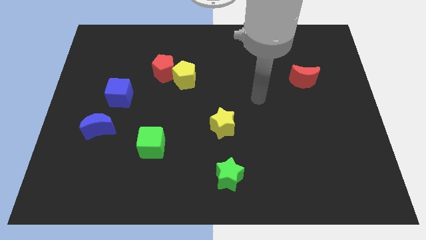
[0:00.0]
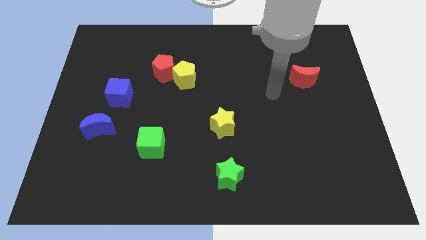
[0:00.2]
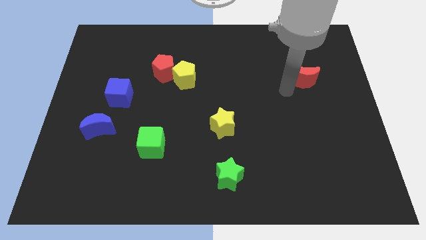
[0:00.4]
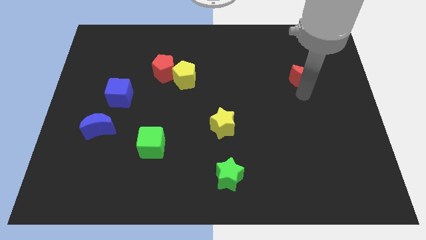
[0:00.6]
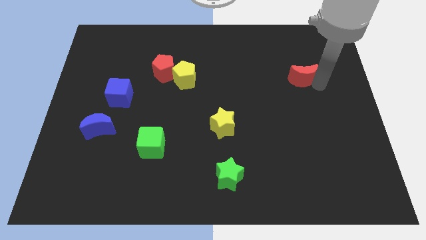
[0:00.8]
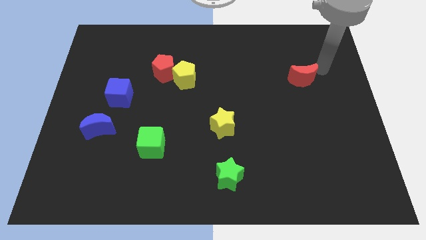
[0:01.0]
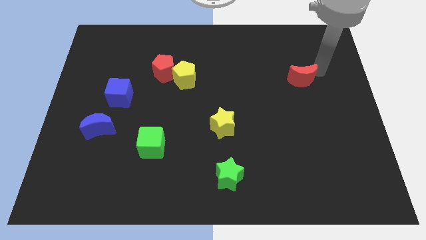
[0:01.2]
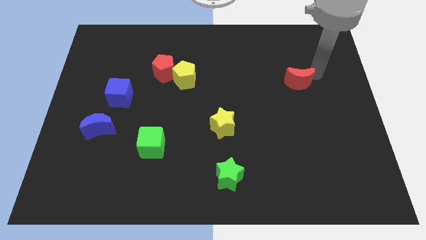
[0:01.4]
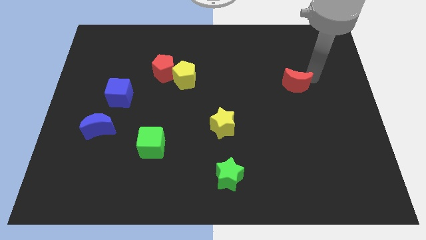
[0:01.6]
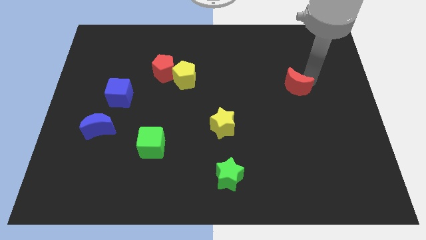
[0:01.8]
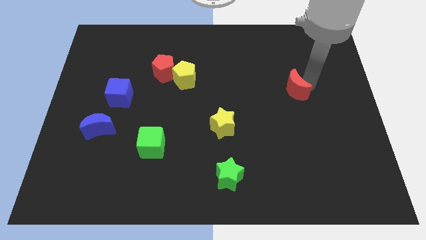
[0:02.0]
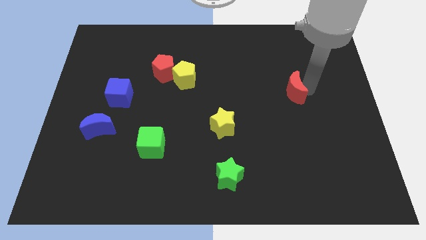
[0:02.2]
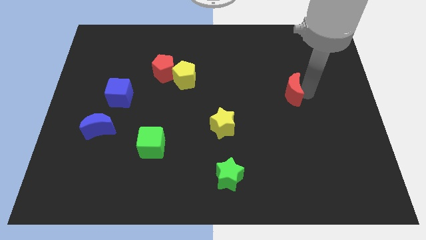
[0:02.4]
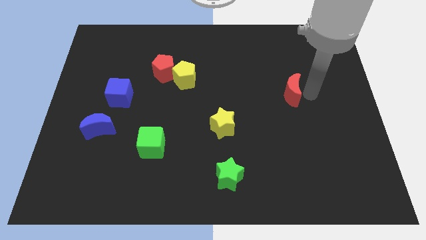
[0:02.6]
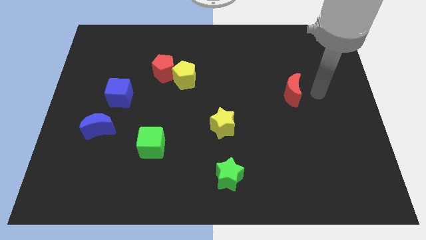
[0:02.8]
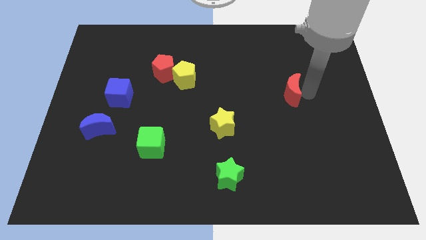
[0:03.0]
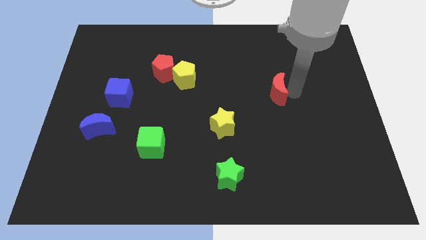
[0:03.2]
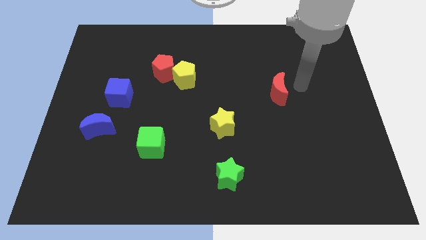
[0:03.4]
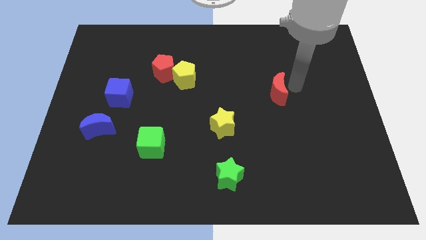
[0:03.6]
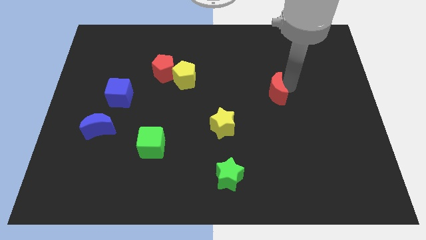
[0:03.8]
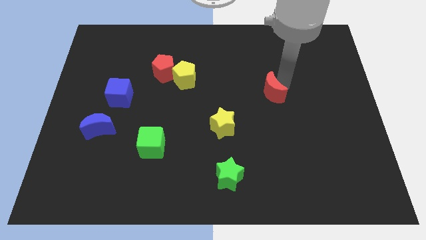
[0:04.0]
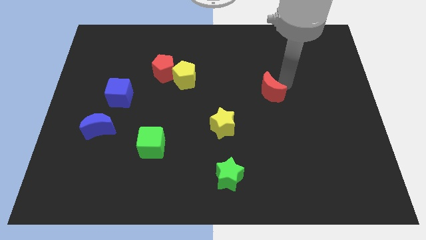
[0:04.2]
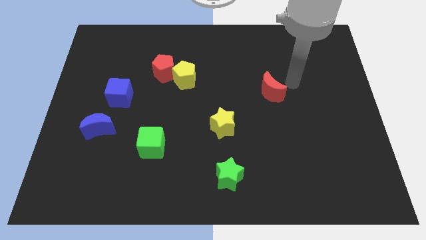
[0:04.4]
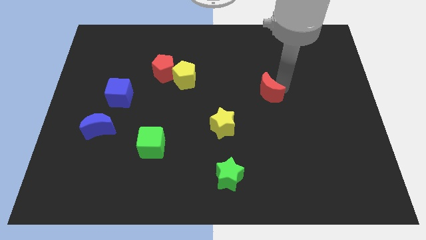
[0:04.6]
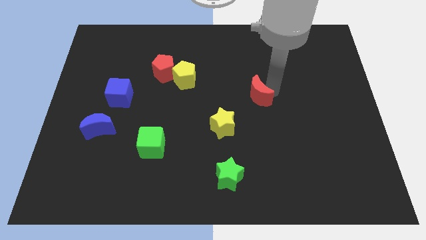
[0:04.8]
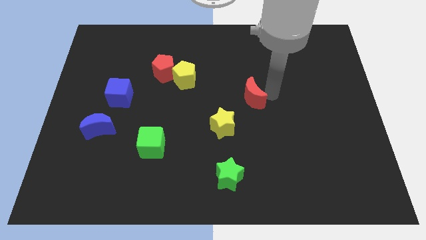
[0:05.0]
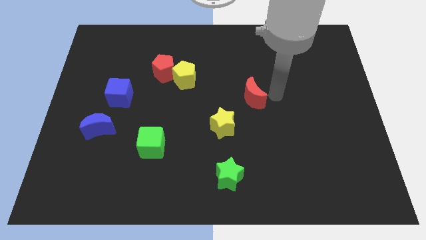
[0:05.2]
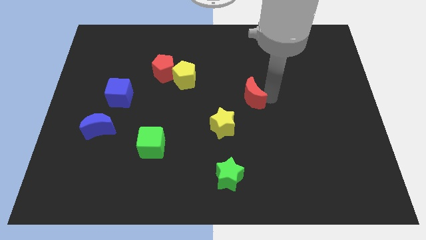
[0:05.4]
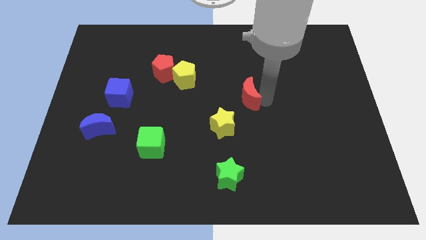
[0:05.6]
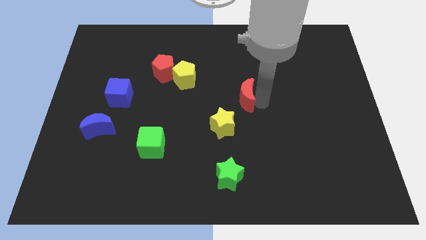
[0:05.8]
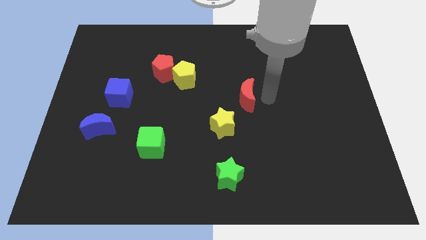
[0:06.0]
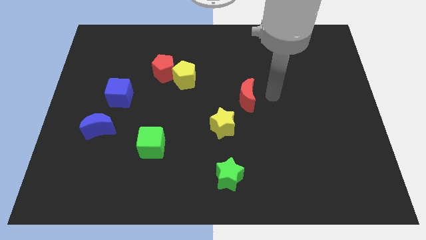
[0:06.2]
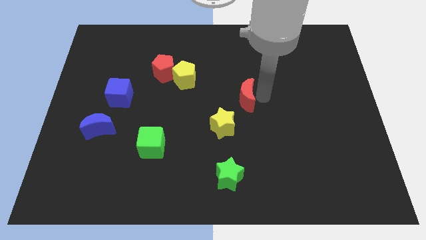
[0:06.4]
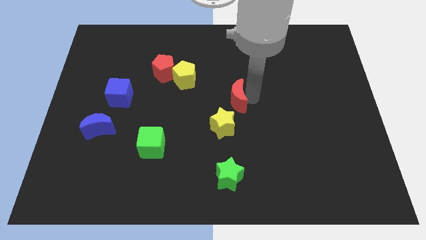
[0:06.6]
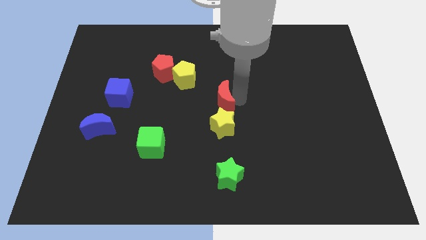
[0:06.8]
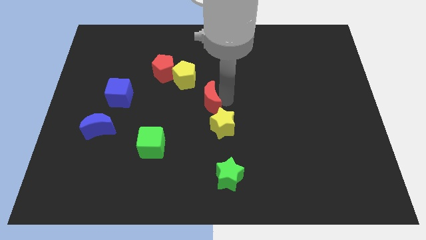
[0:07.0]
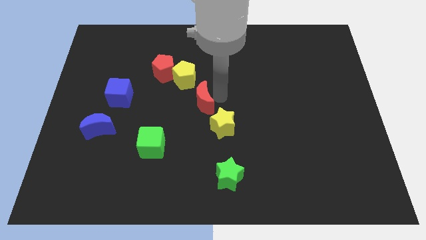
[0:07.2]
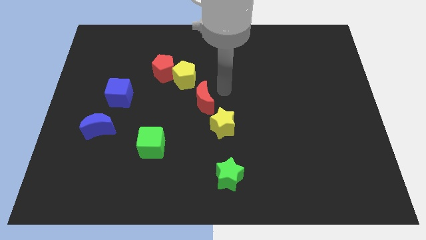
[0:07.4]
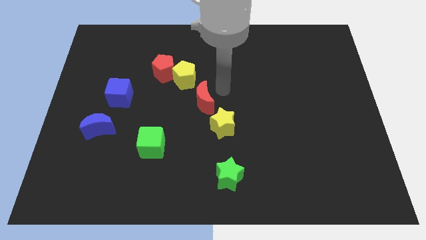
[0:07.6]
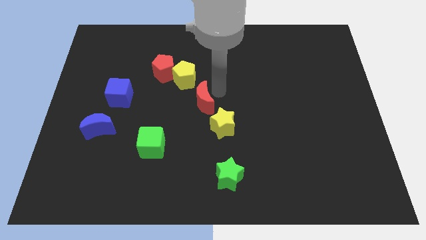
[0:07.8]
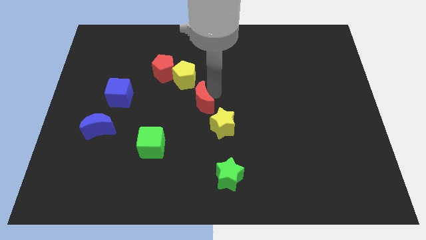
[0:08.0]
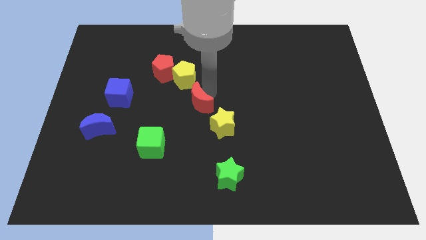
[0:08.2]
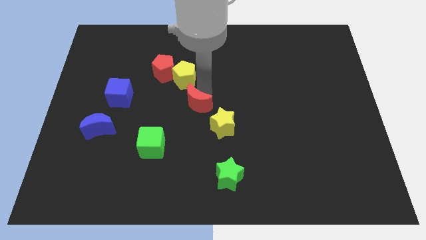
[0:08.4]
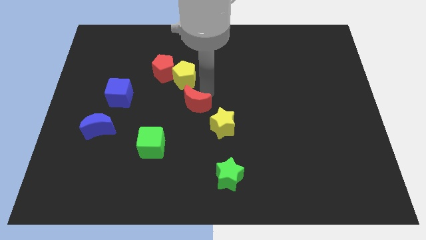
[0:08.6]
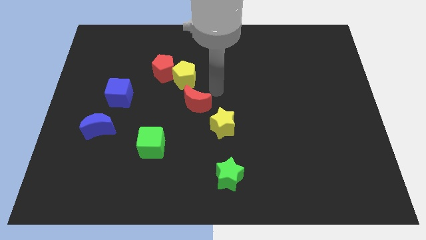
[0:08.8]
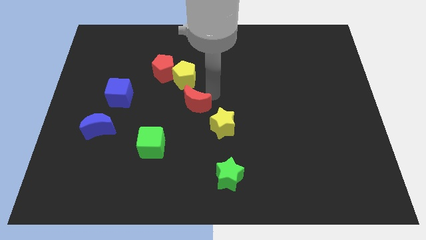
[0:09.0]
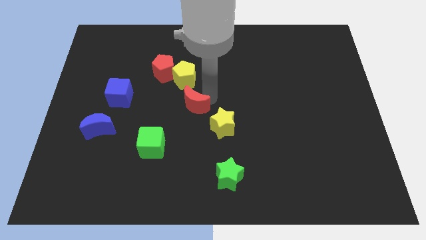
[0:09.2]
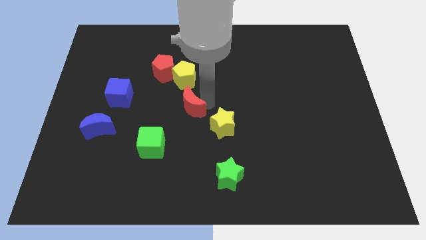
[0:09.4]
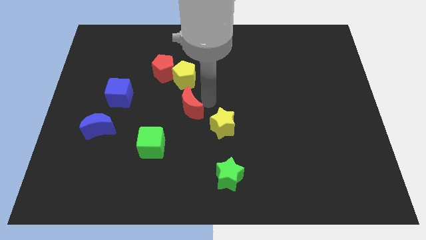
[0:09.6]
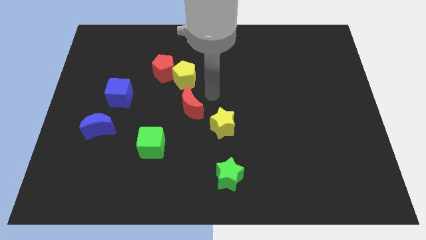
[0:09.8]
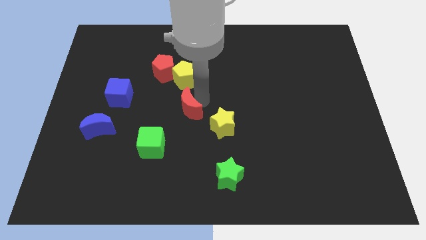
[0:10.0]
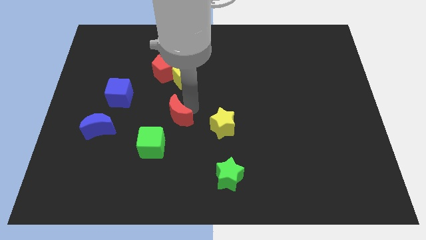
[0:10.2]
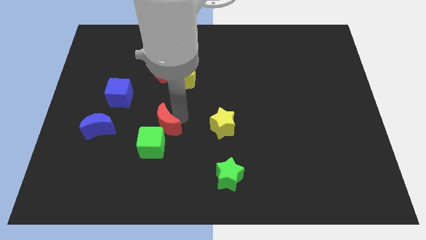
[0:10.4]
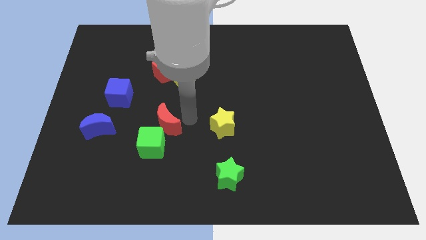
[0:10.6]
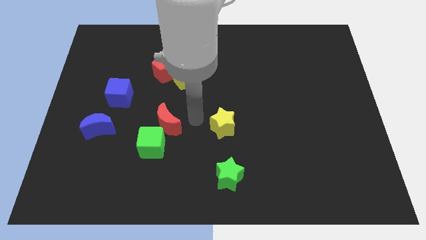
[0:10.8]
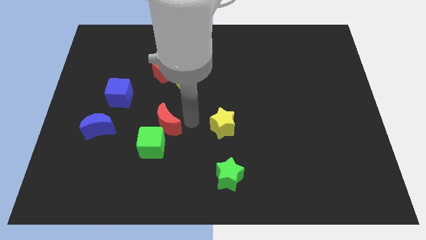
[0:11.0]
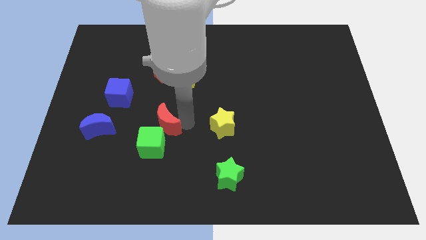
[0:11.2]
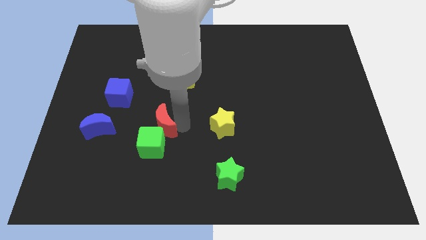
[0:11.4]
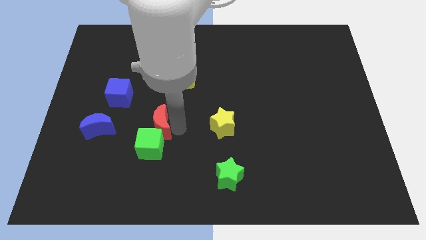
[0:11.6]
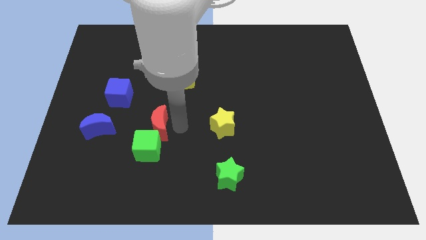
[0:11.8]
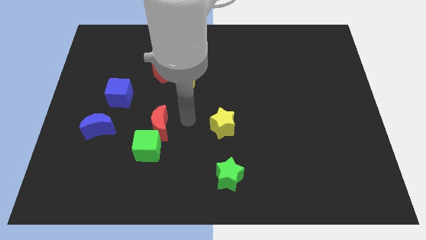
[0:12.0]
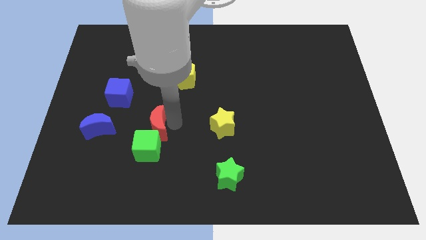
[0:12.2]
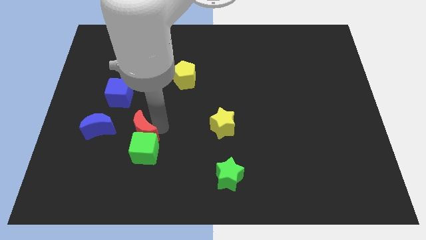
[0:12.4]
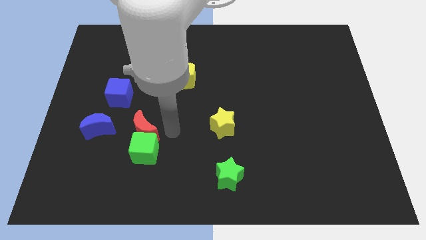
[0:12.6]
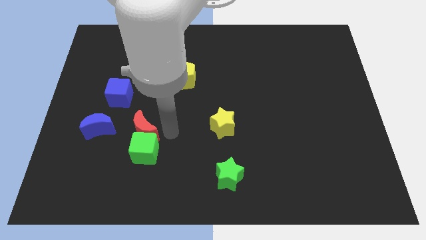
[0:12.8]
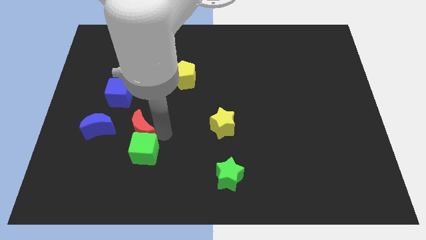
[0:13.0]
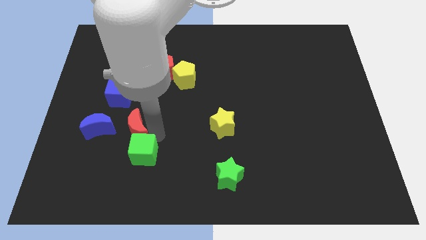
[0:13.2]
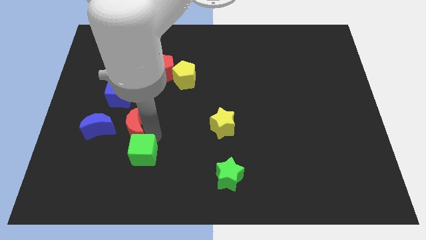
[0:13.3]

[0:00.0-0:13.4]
push the red moon to the bottom side of the blue cube
